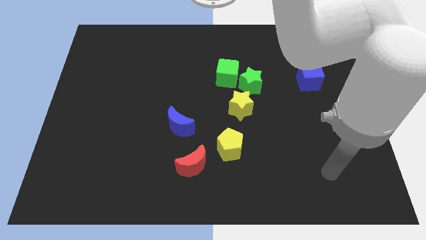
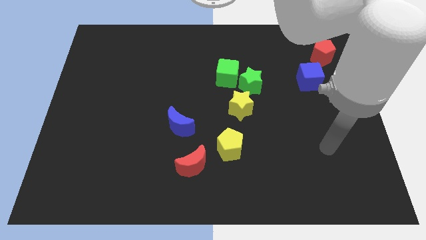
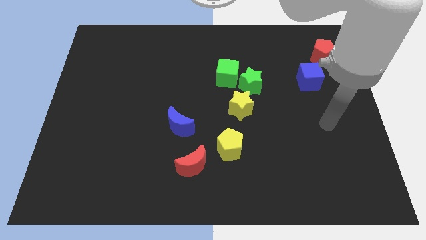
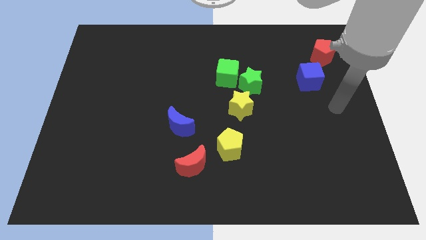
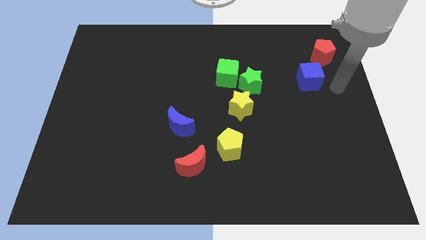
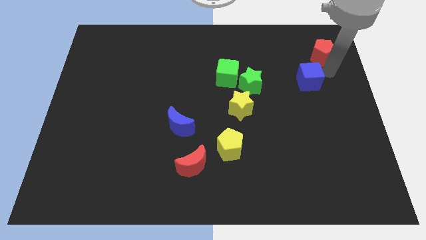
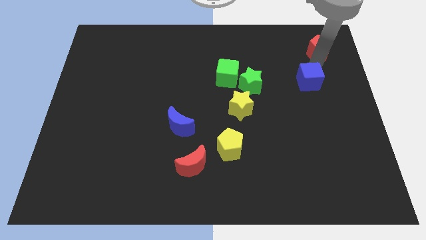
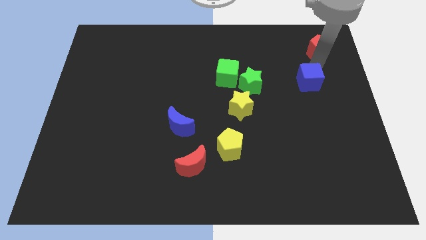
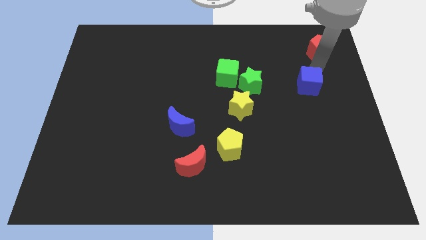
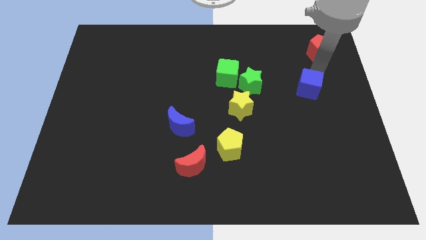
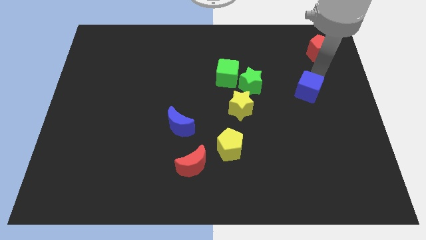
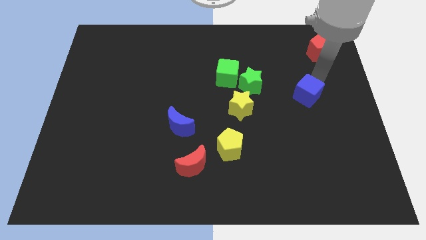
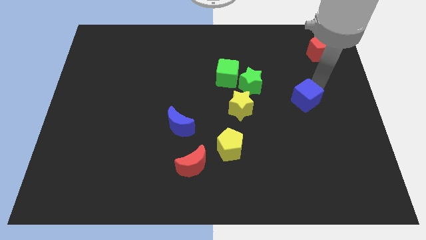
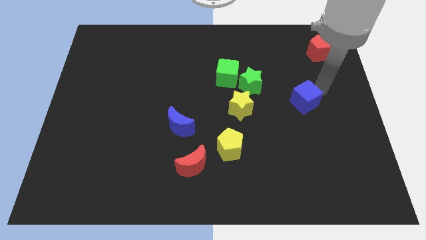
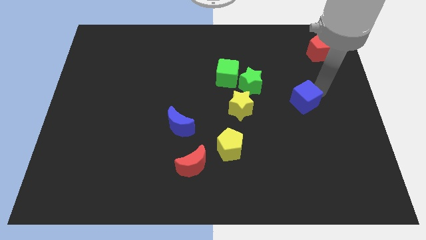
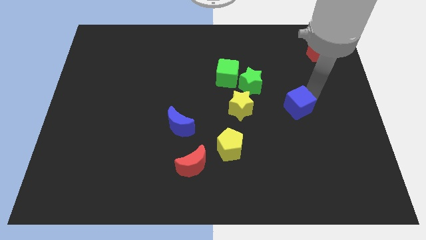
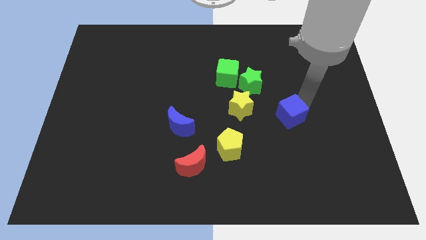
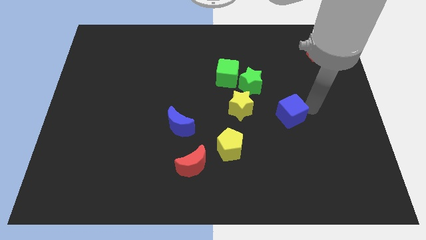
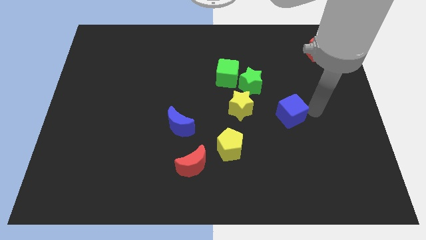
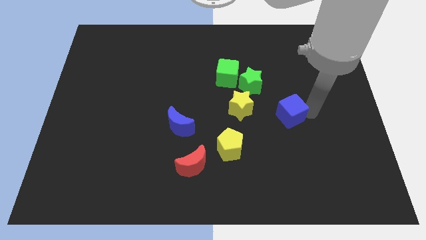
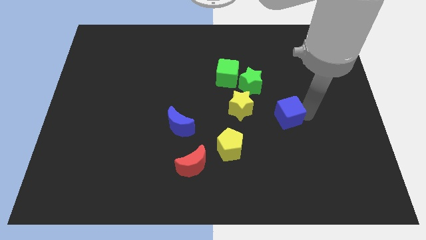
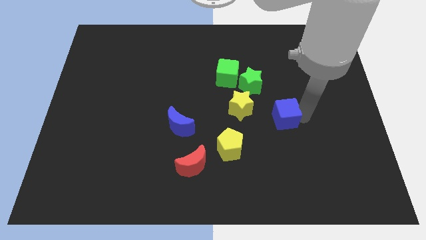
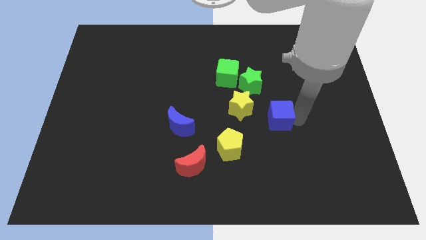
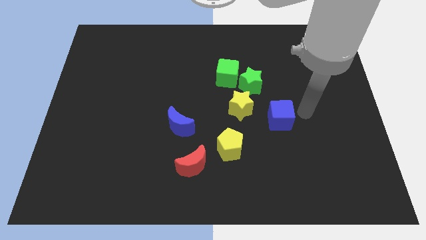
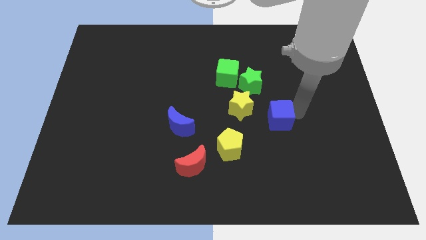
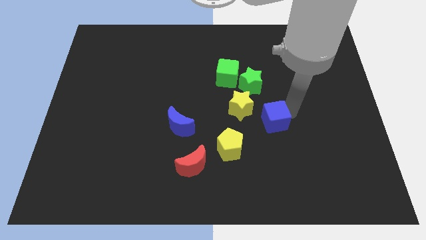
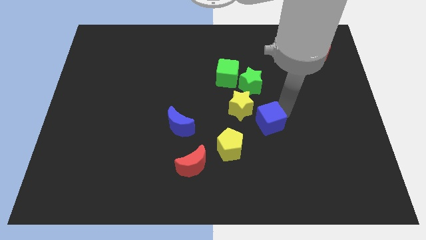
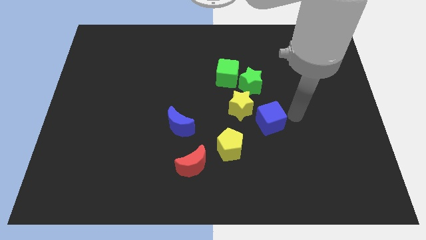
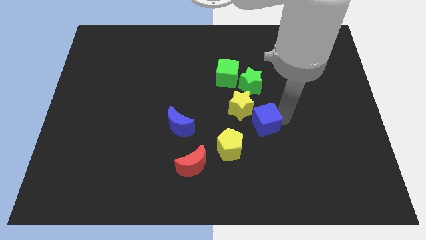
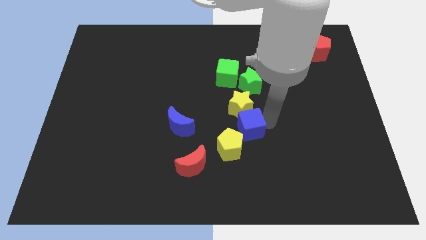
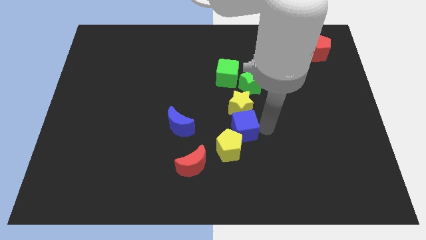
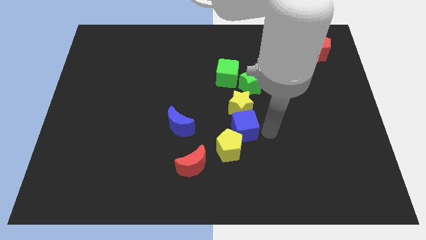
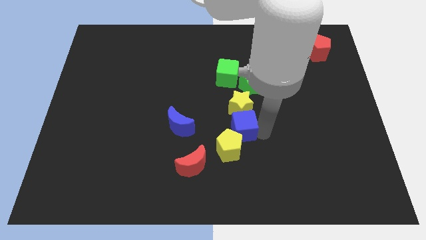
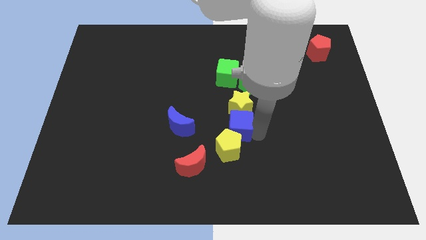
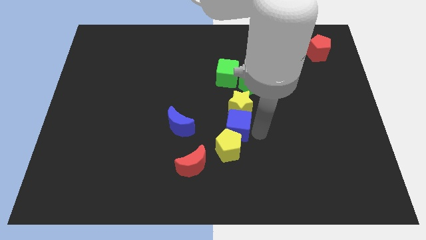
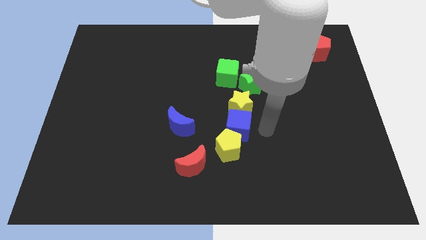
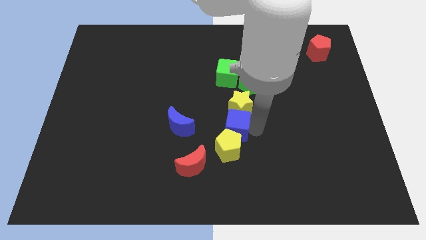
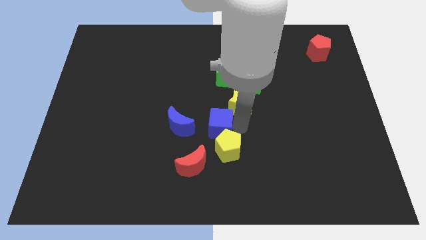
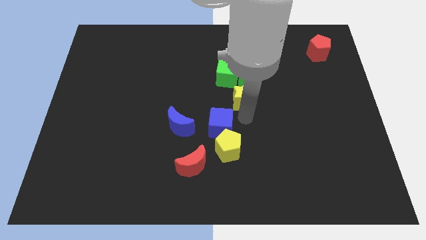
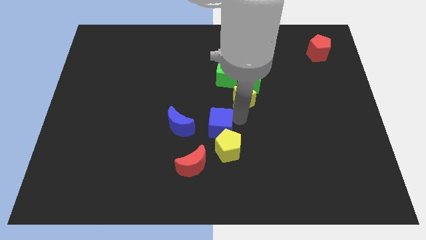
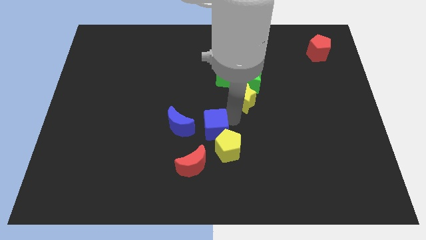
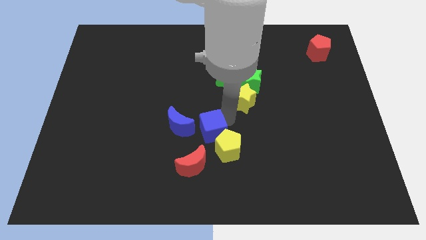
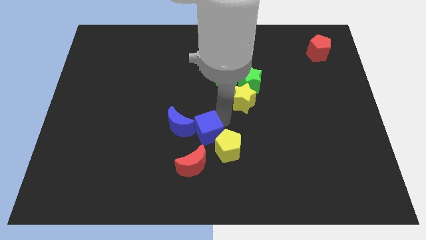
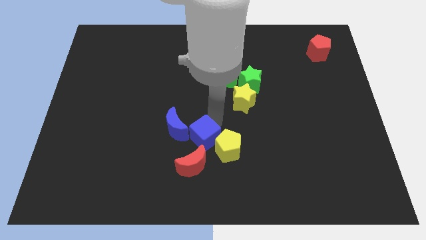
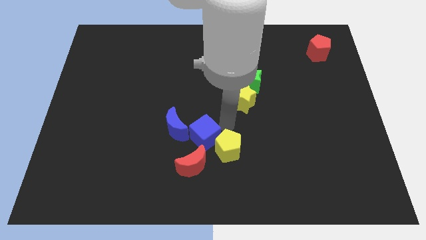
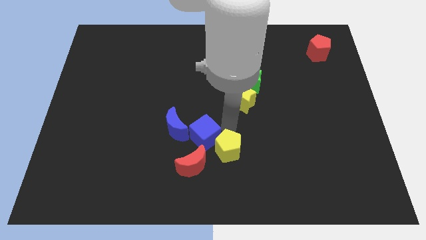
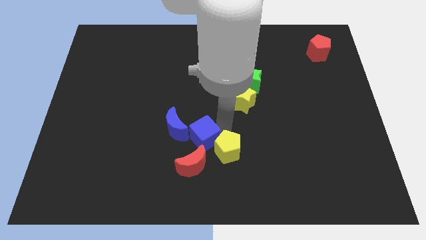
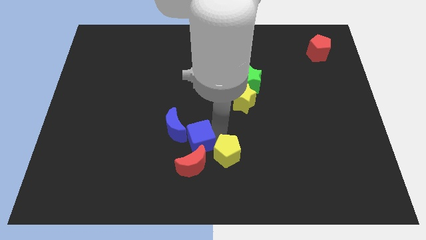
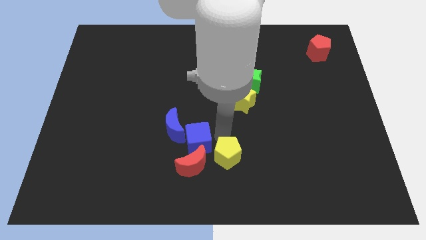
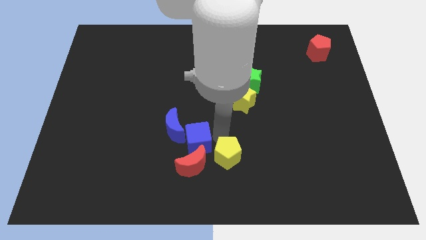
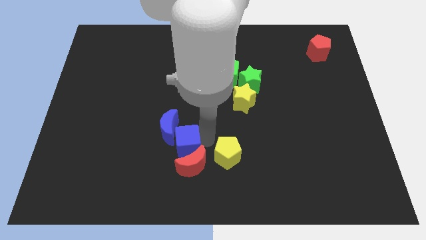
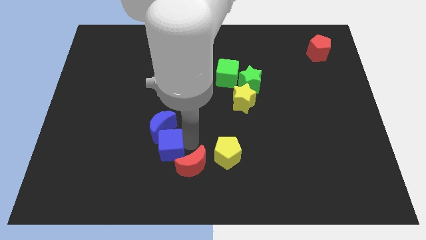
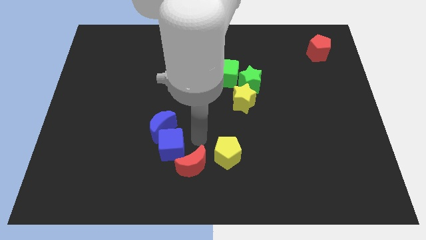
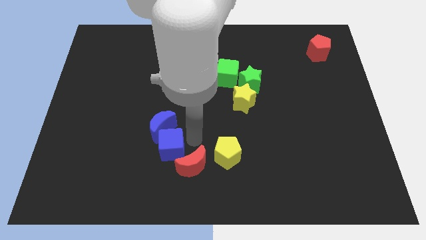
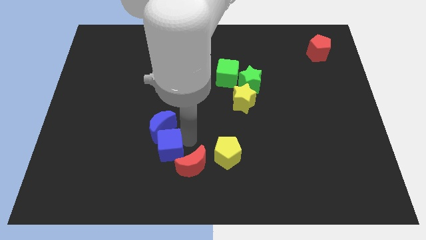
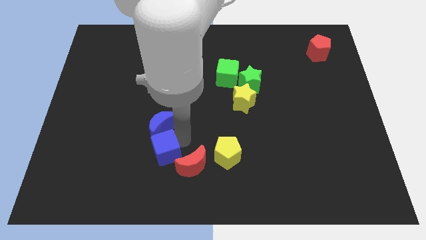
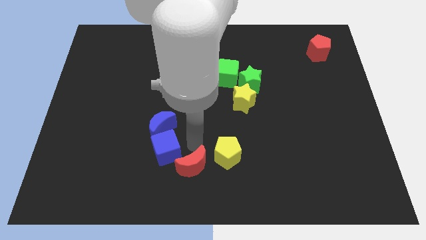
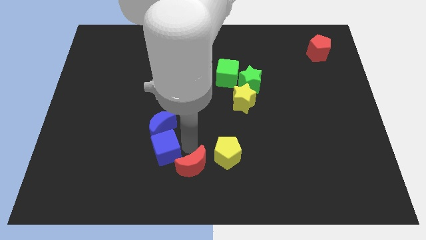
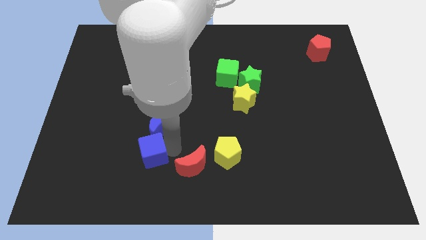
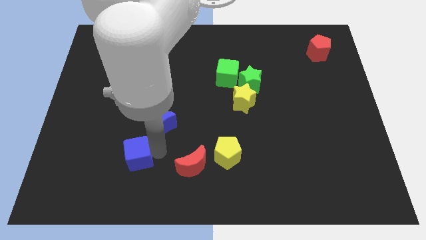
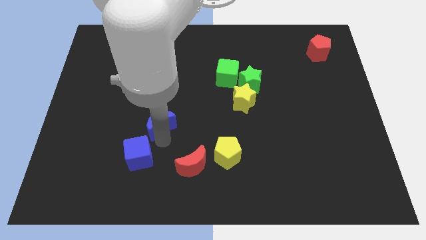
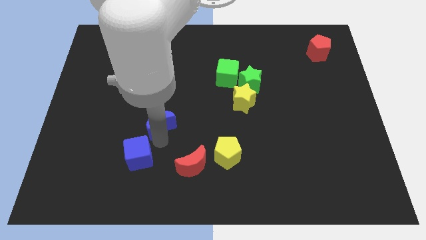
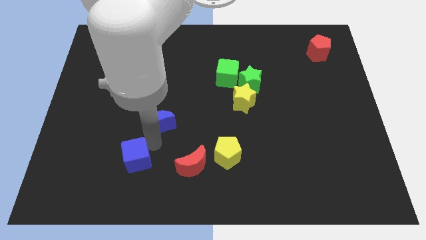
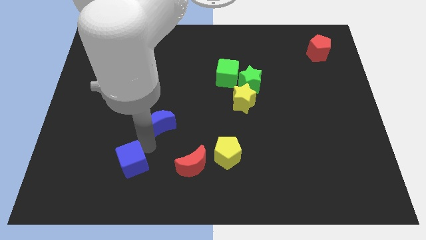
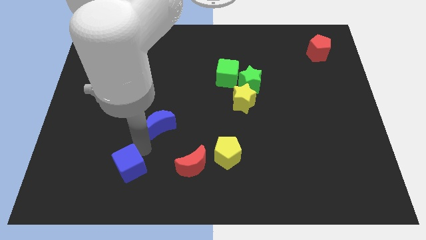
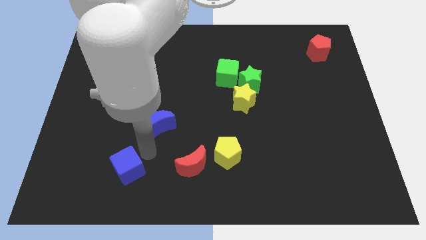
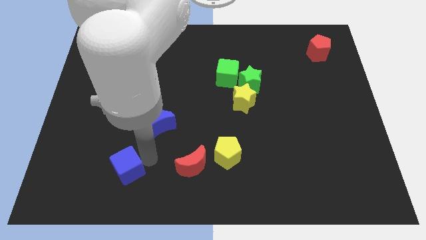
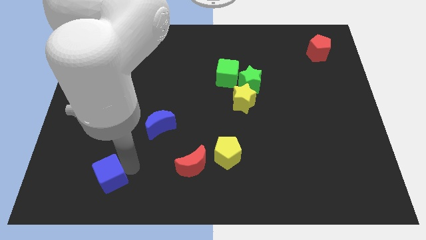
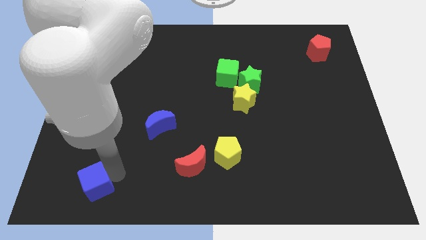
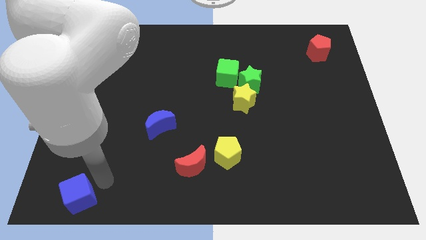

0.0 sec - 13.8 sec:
move the blue cube to the bottom left

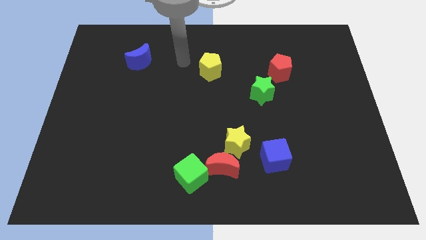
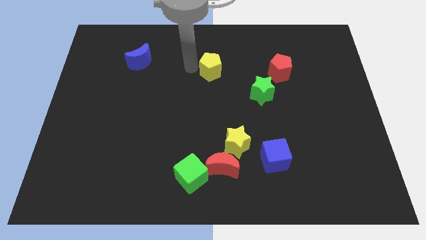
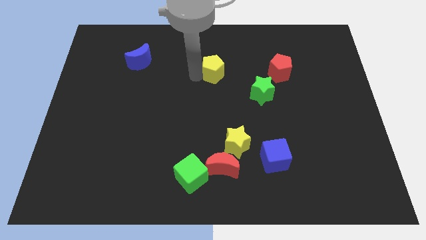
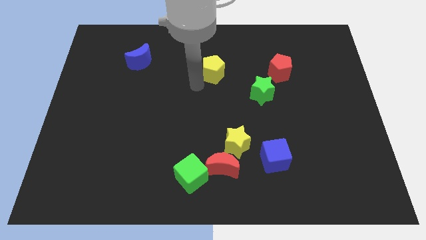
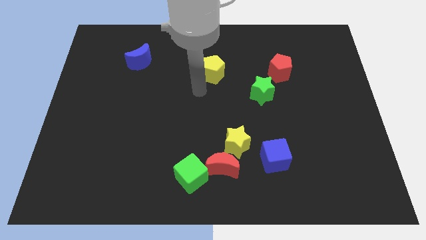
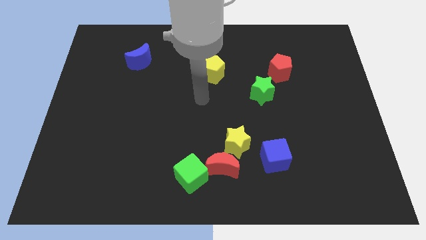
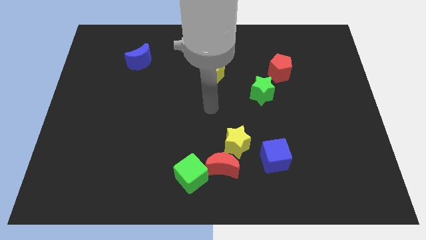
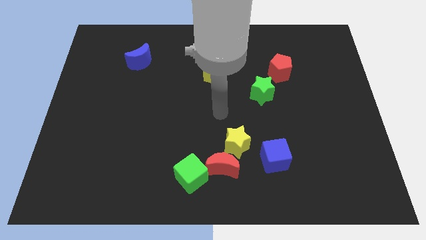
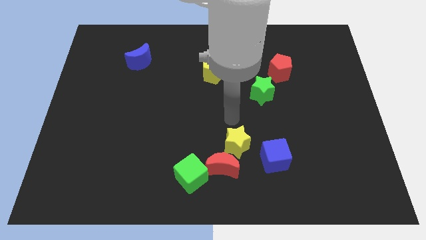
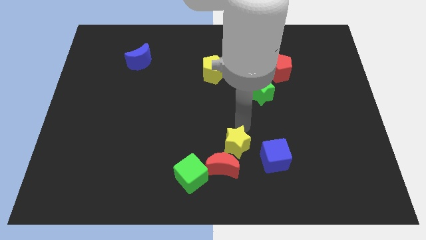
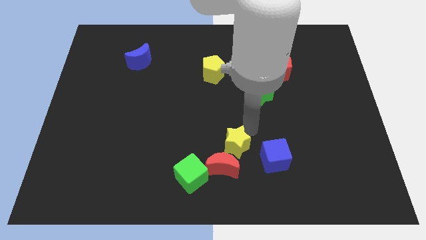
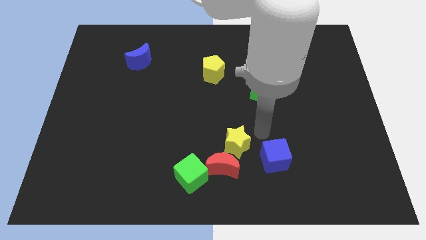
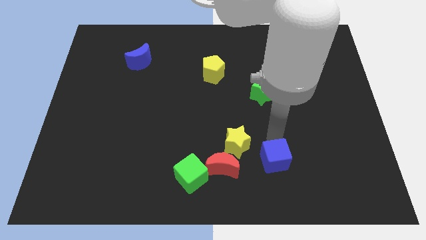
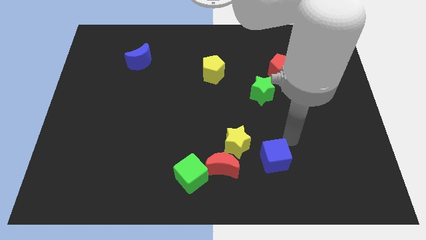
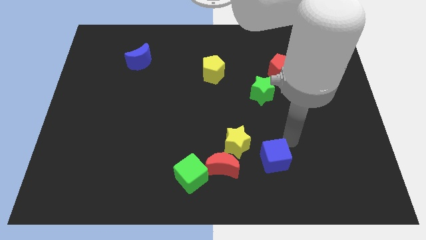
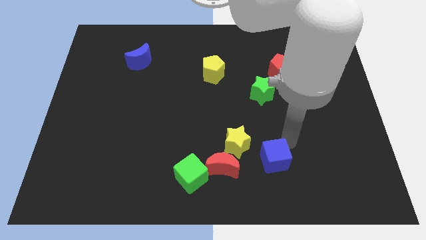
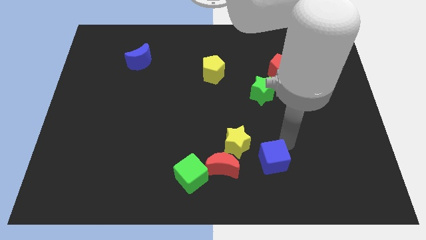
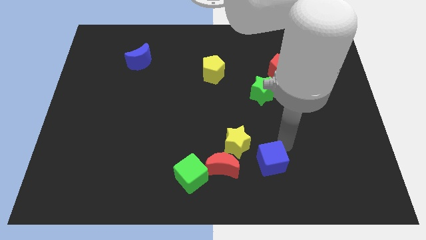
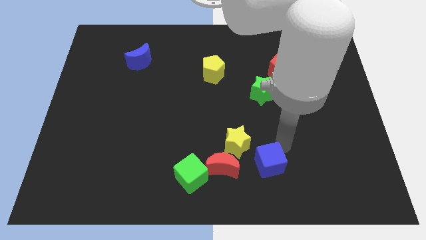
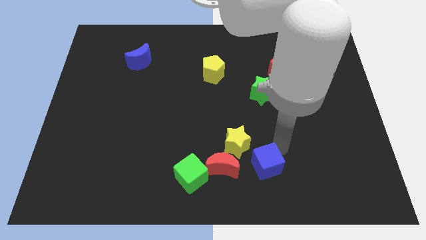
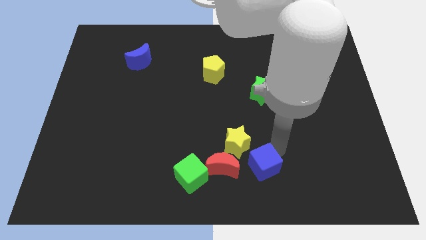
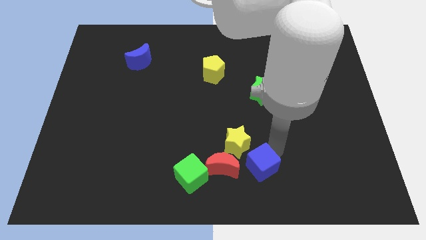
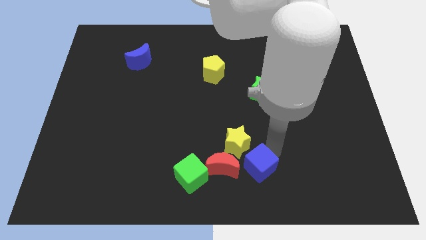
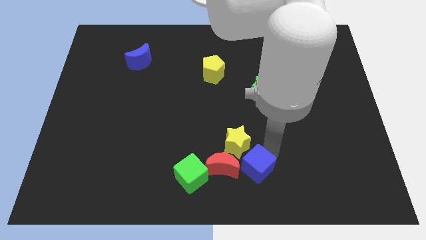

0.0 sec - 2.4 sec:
push the blue cube to the bottom side
